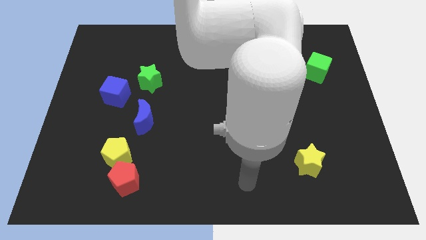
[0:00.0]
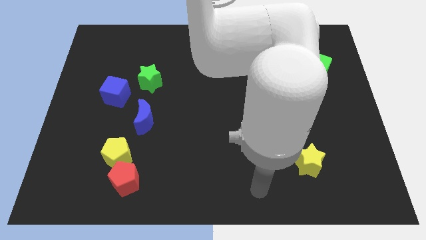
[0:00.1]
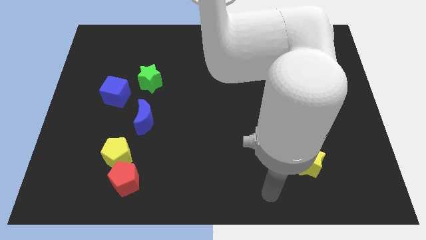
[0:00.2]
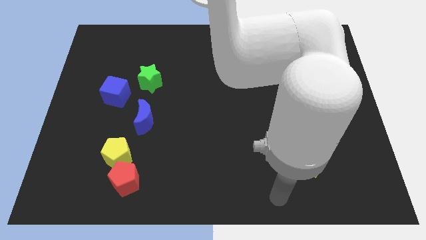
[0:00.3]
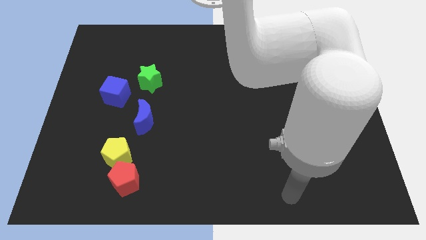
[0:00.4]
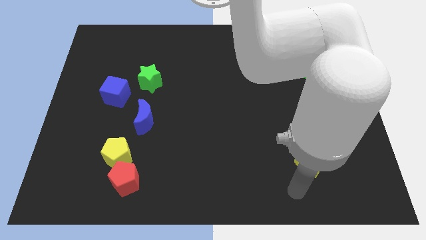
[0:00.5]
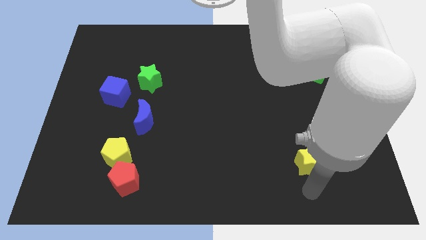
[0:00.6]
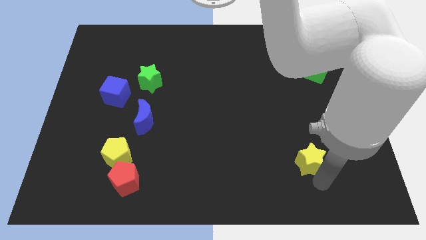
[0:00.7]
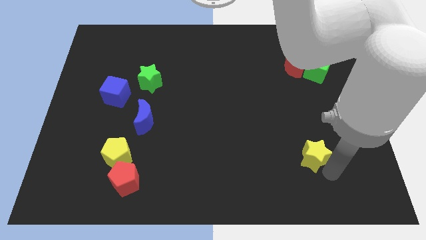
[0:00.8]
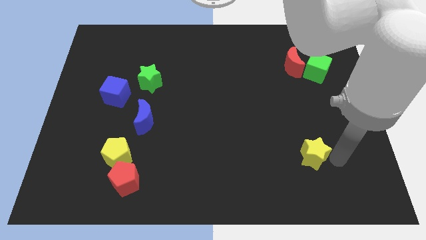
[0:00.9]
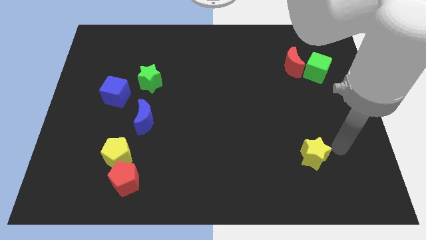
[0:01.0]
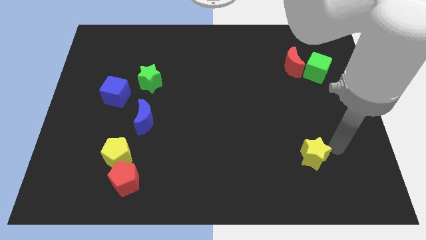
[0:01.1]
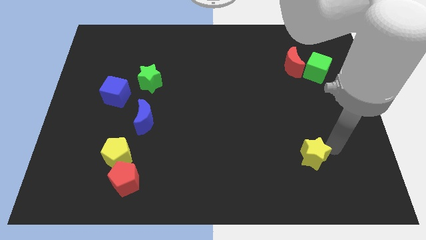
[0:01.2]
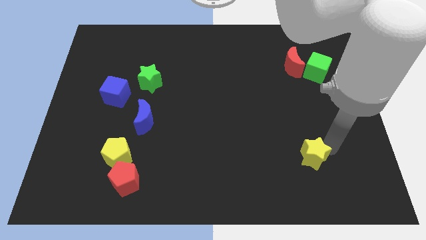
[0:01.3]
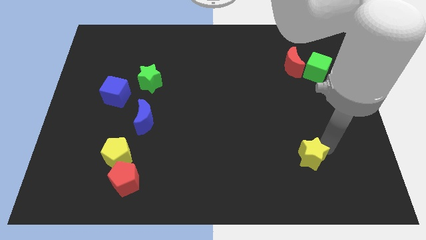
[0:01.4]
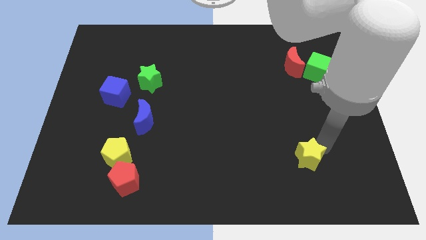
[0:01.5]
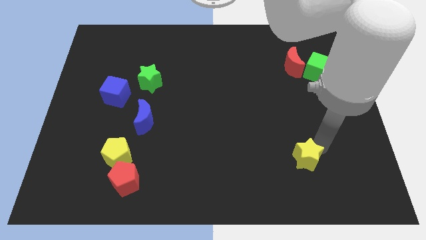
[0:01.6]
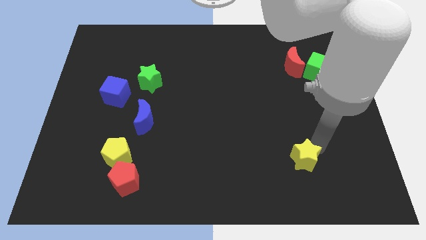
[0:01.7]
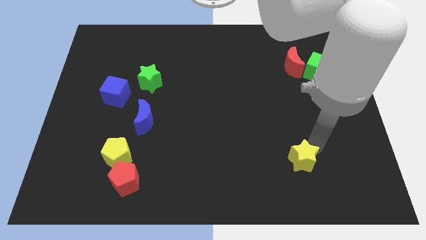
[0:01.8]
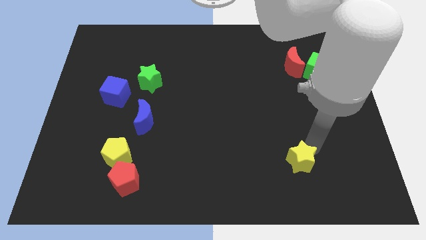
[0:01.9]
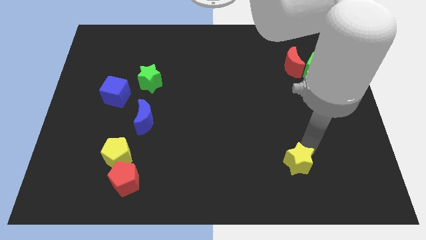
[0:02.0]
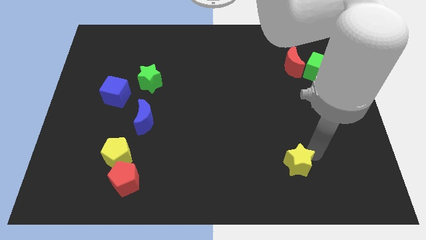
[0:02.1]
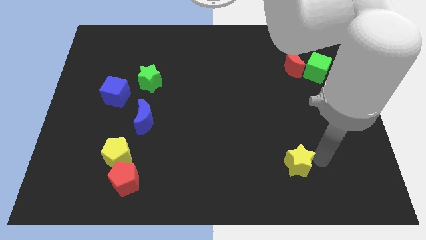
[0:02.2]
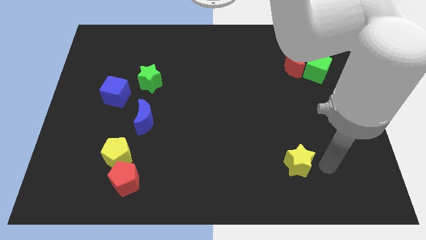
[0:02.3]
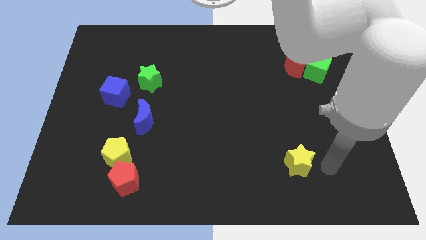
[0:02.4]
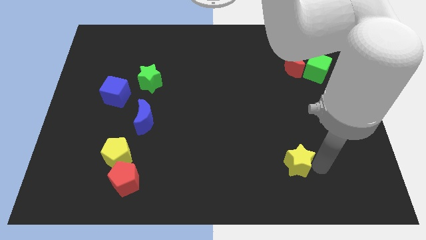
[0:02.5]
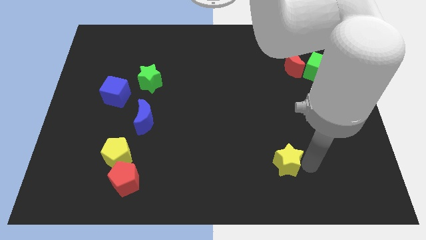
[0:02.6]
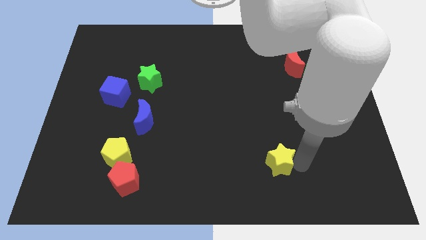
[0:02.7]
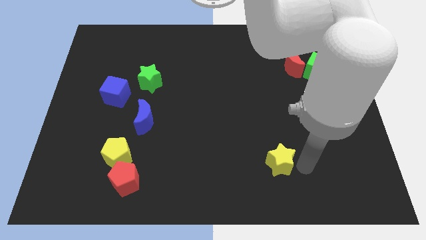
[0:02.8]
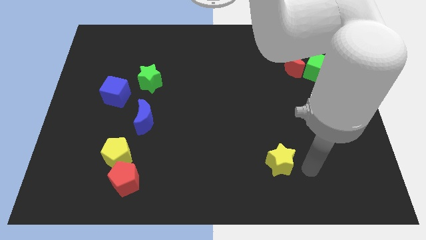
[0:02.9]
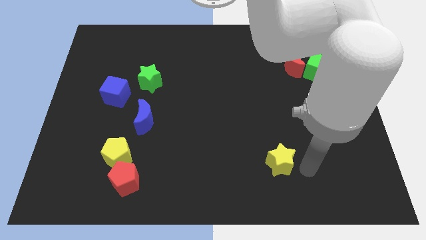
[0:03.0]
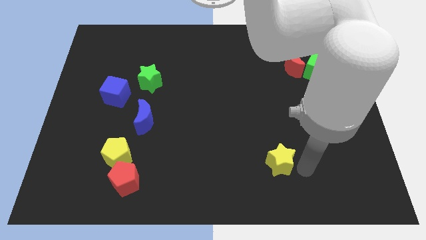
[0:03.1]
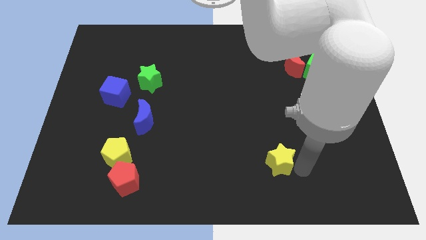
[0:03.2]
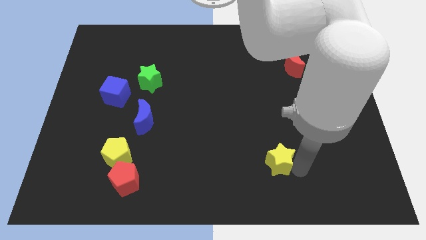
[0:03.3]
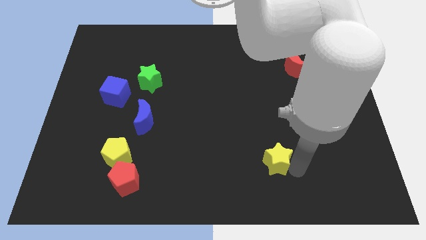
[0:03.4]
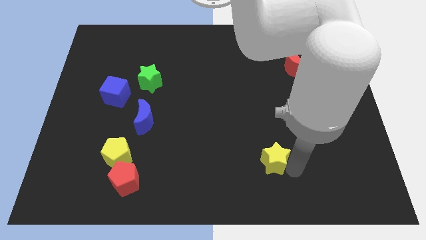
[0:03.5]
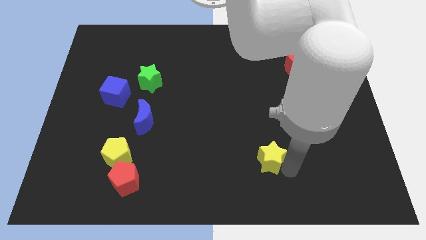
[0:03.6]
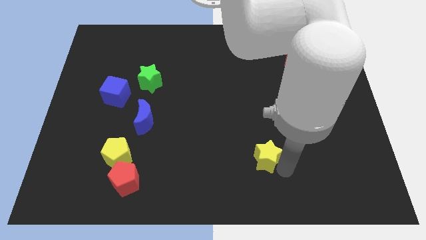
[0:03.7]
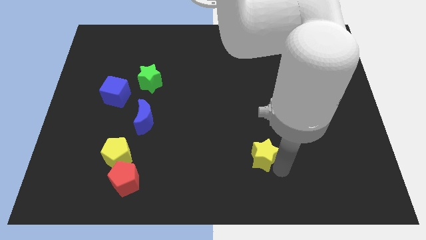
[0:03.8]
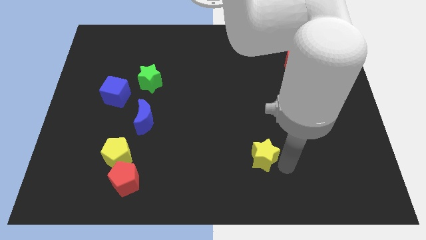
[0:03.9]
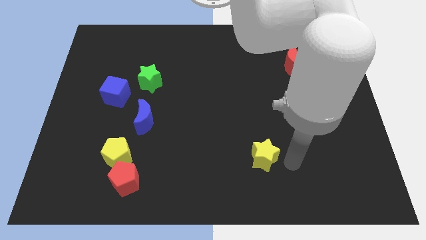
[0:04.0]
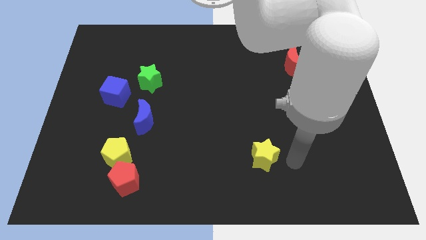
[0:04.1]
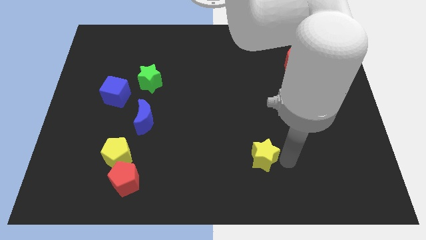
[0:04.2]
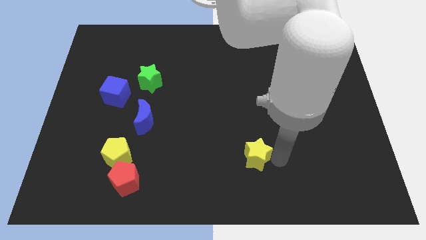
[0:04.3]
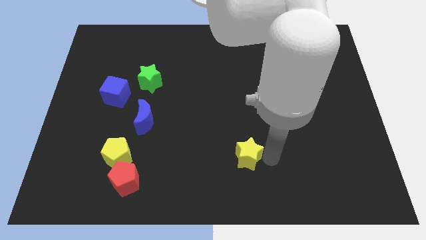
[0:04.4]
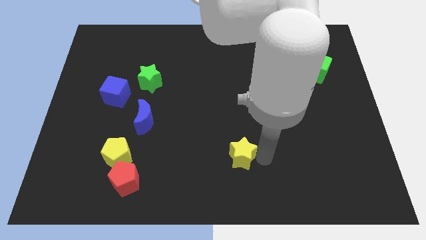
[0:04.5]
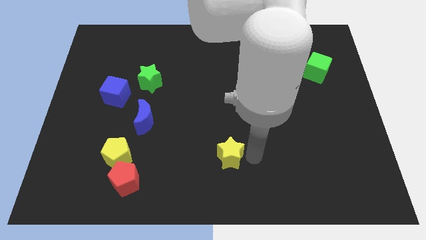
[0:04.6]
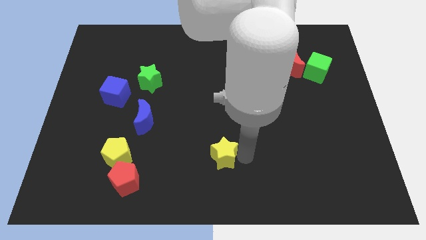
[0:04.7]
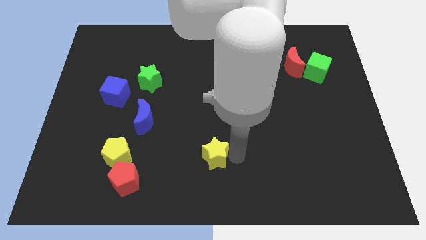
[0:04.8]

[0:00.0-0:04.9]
slide the yellow star to the left

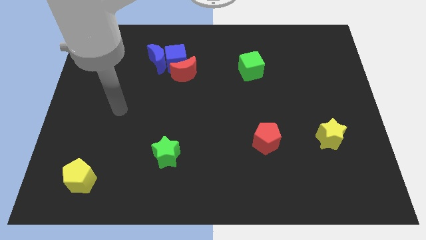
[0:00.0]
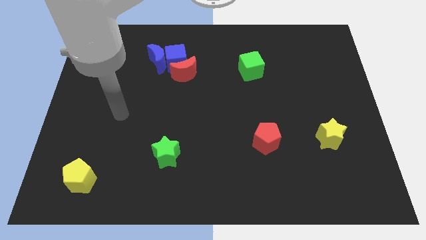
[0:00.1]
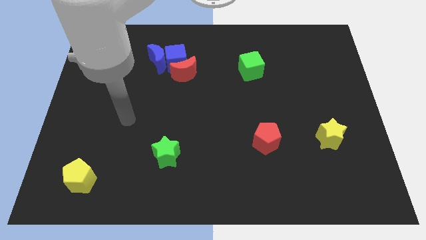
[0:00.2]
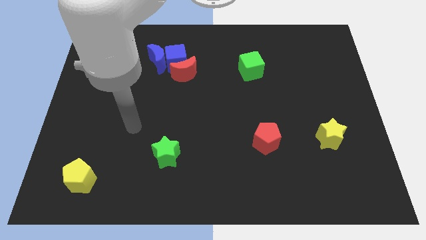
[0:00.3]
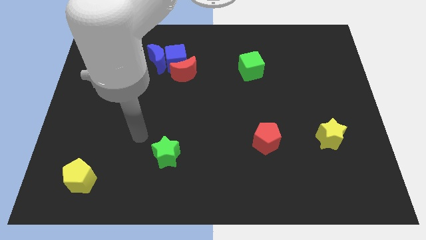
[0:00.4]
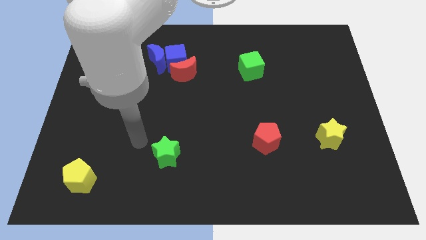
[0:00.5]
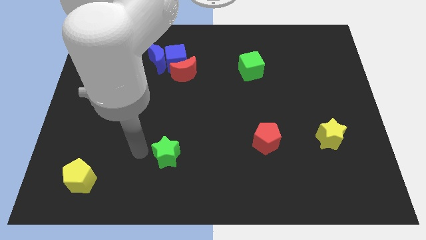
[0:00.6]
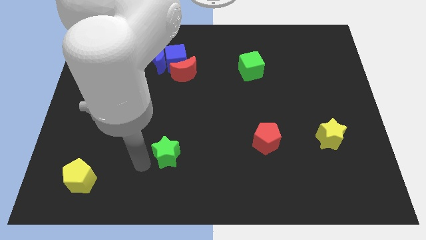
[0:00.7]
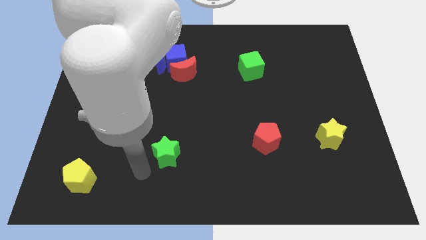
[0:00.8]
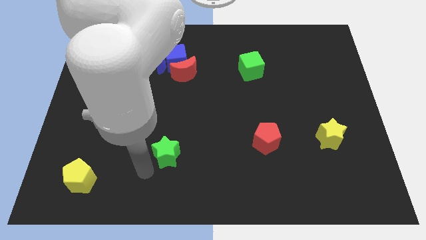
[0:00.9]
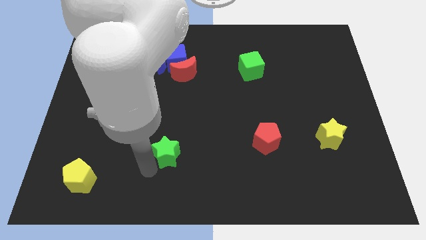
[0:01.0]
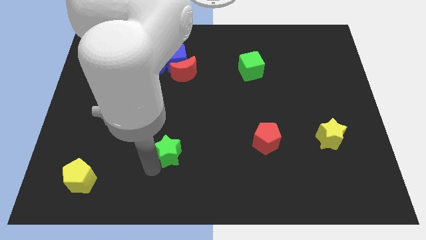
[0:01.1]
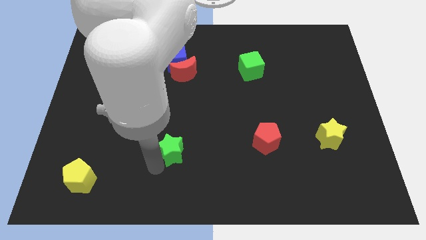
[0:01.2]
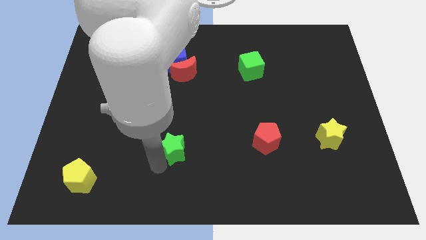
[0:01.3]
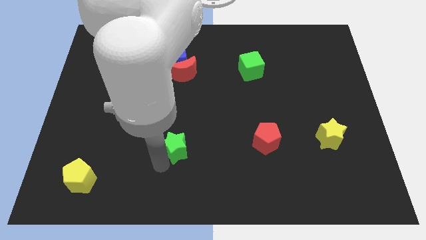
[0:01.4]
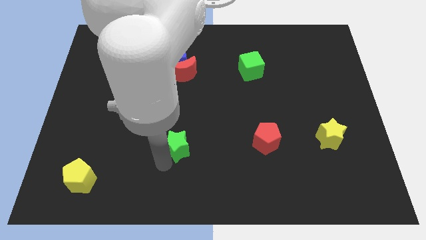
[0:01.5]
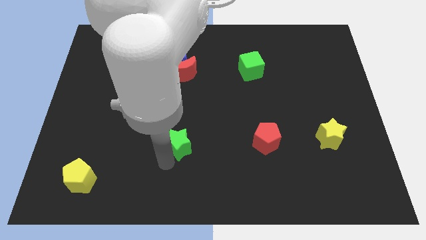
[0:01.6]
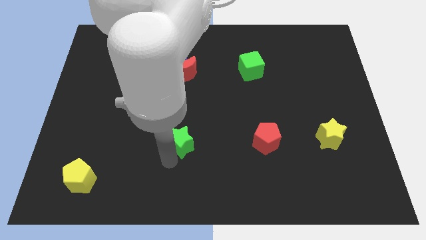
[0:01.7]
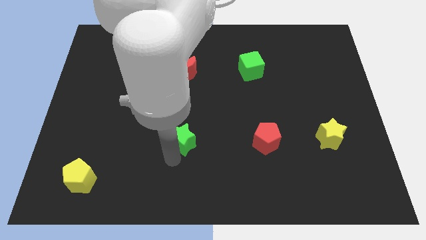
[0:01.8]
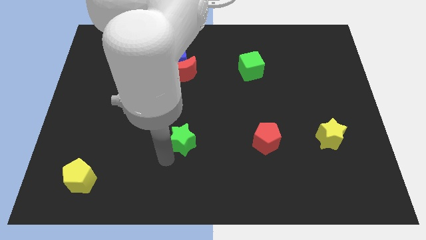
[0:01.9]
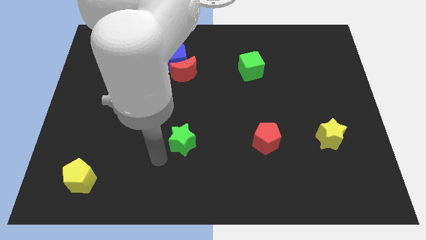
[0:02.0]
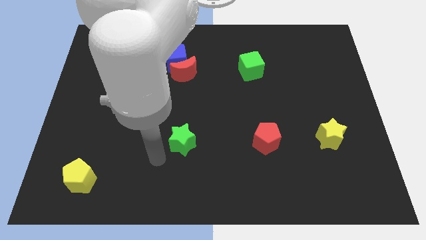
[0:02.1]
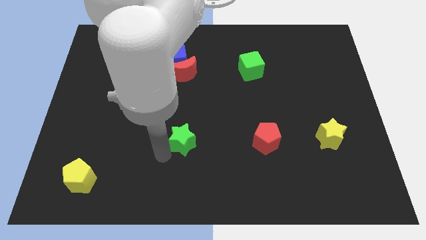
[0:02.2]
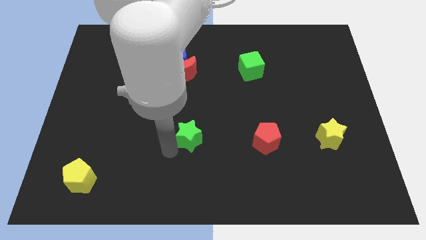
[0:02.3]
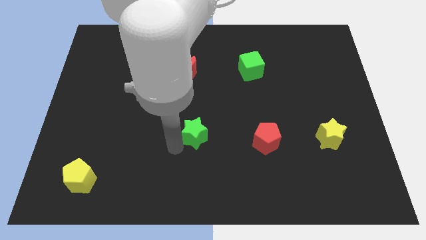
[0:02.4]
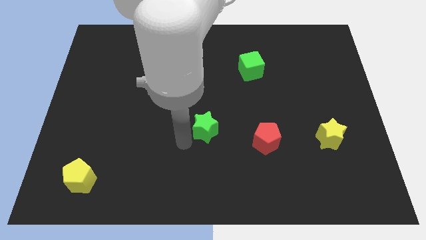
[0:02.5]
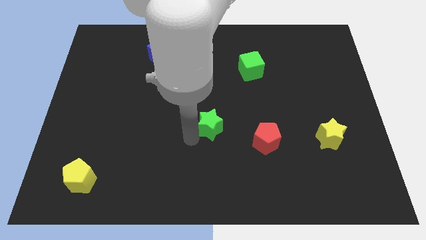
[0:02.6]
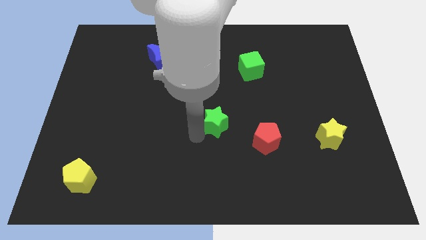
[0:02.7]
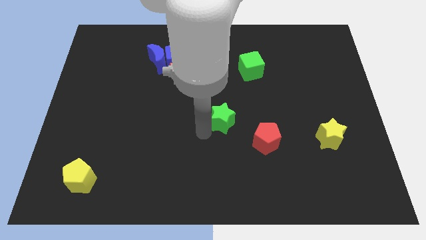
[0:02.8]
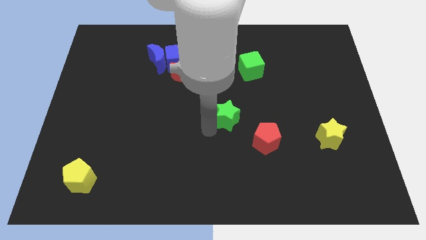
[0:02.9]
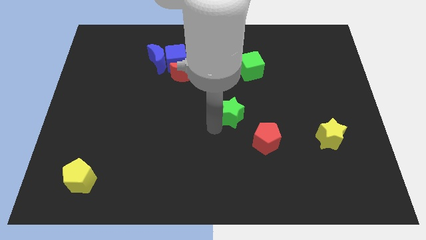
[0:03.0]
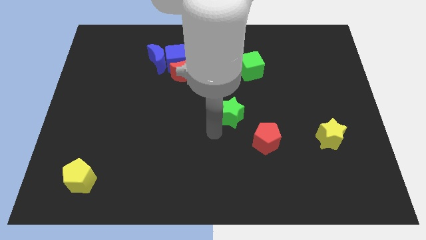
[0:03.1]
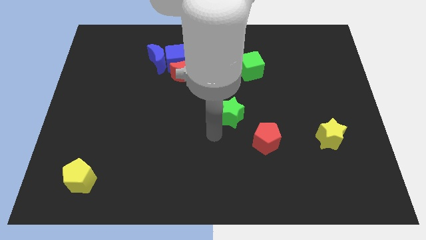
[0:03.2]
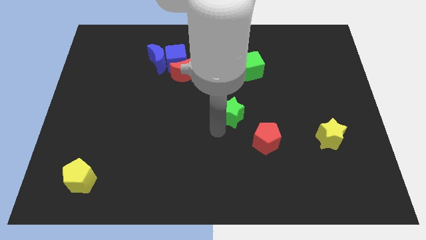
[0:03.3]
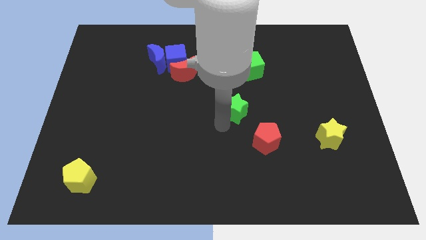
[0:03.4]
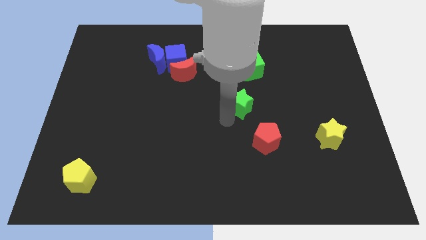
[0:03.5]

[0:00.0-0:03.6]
push the green star up and to the right
